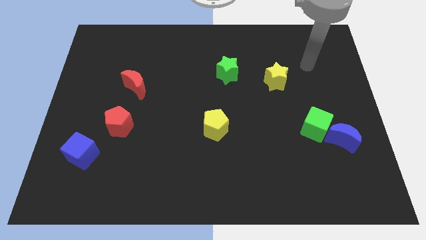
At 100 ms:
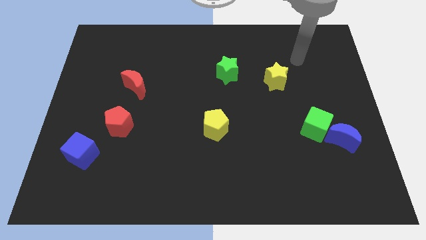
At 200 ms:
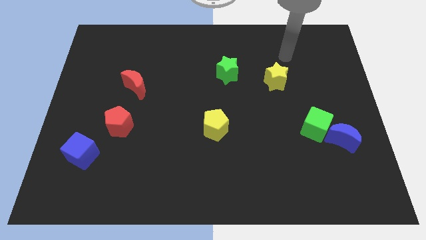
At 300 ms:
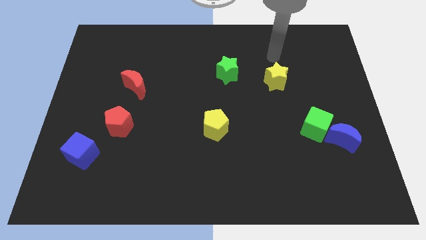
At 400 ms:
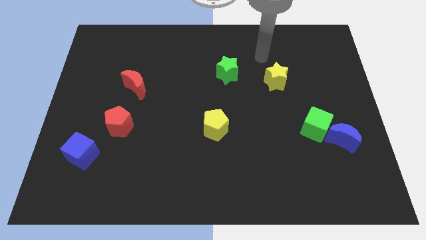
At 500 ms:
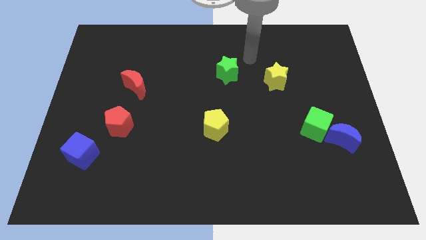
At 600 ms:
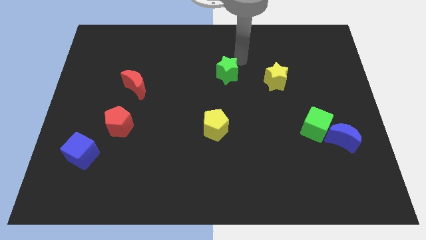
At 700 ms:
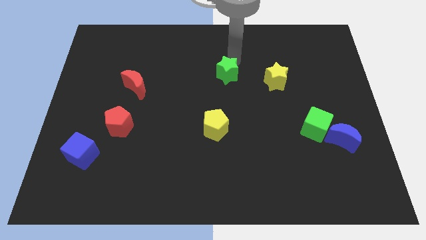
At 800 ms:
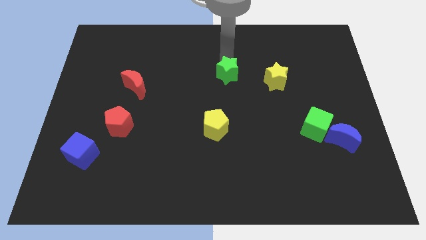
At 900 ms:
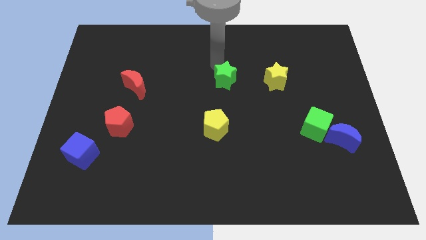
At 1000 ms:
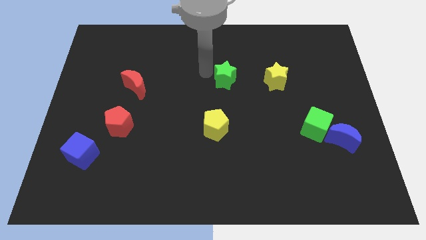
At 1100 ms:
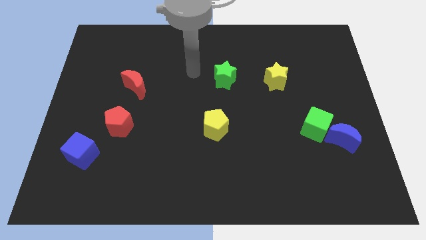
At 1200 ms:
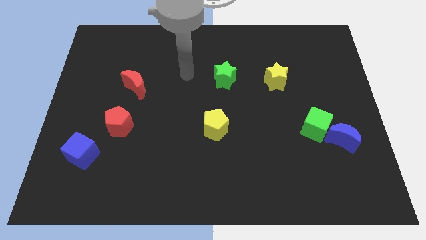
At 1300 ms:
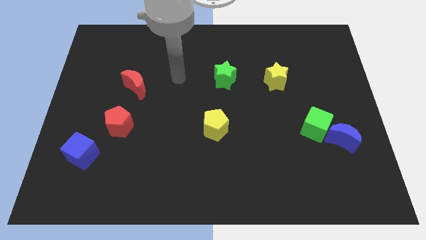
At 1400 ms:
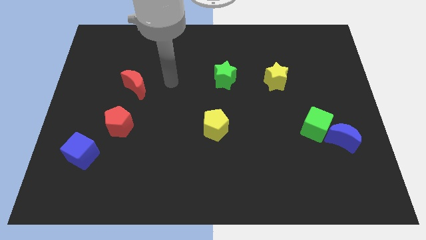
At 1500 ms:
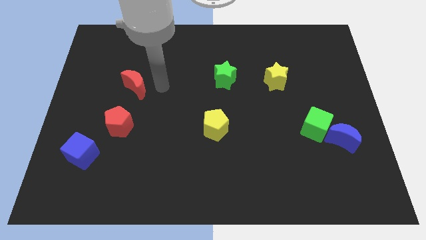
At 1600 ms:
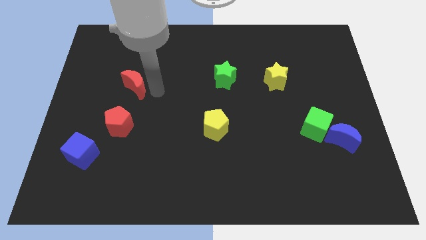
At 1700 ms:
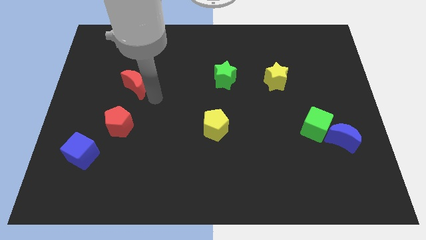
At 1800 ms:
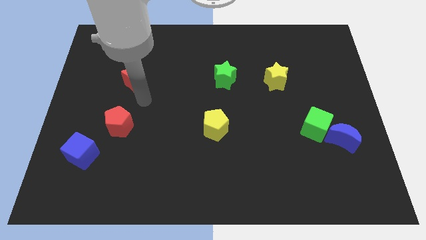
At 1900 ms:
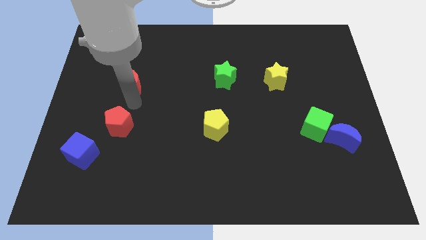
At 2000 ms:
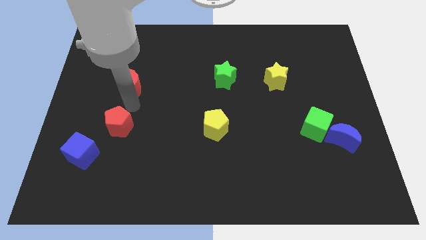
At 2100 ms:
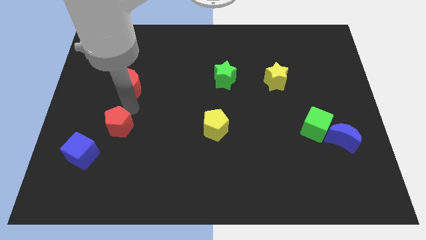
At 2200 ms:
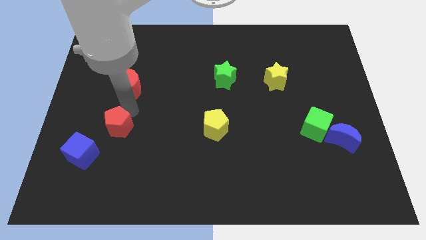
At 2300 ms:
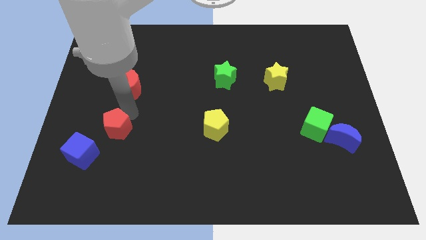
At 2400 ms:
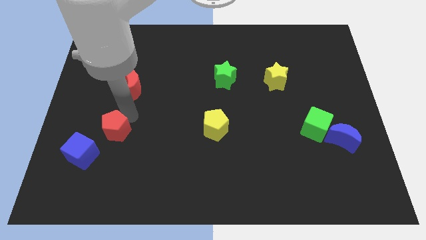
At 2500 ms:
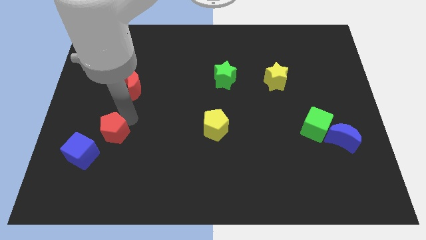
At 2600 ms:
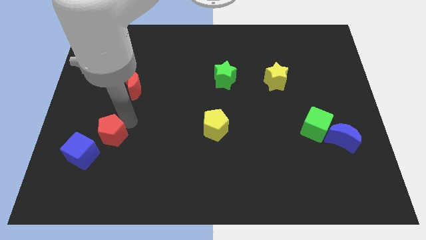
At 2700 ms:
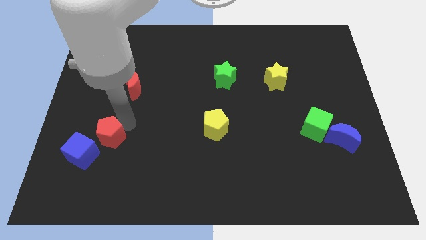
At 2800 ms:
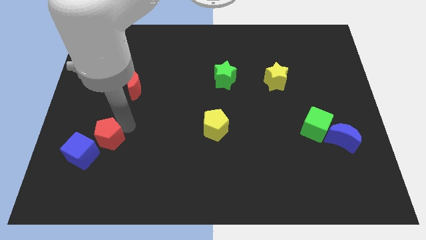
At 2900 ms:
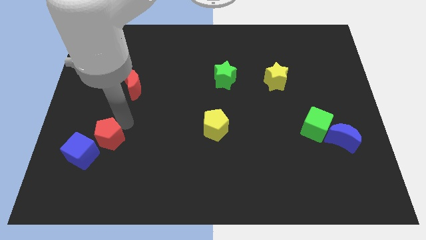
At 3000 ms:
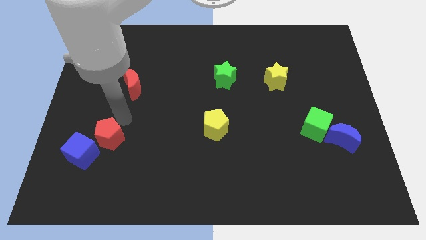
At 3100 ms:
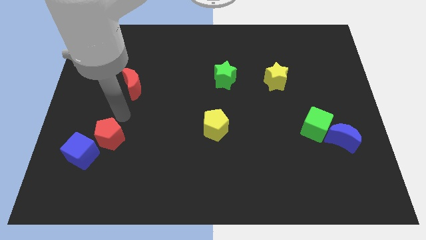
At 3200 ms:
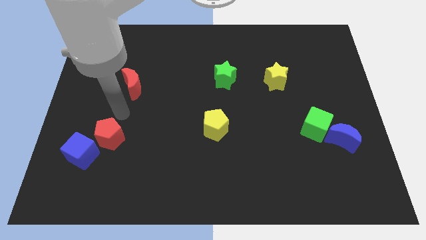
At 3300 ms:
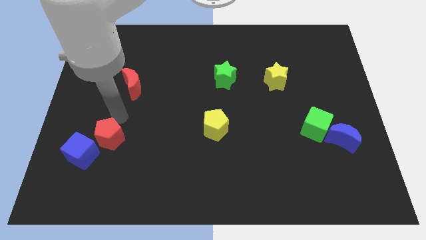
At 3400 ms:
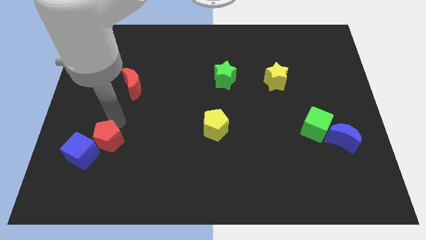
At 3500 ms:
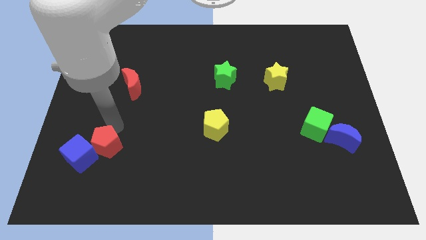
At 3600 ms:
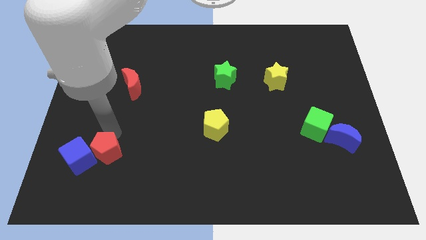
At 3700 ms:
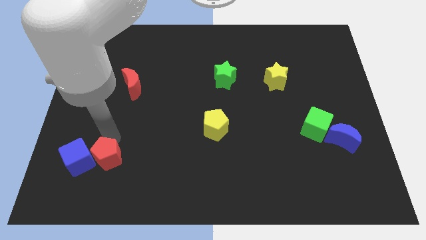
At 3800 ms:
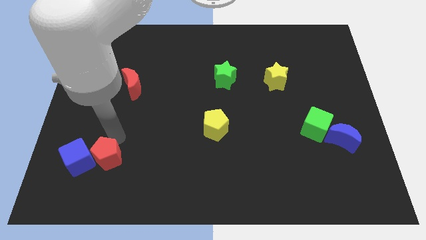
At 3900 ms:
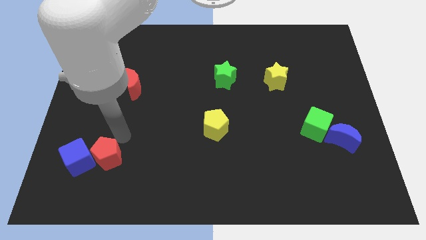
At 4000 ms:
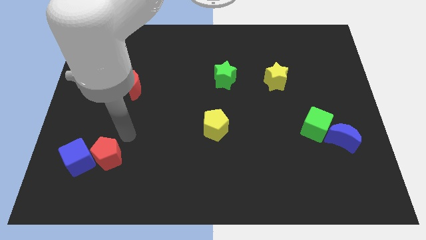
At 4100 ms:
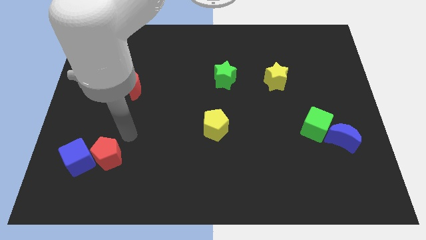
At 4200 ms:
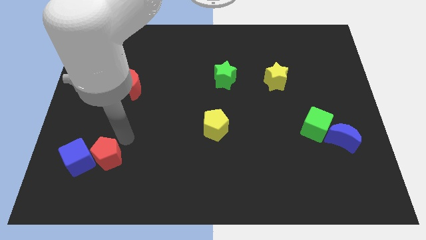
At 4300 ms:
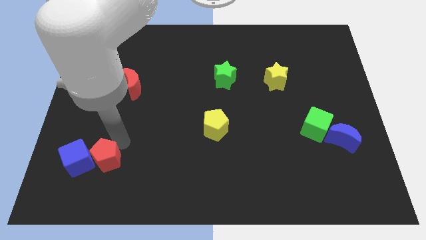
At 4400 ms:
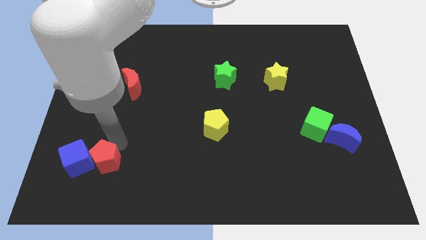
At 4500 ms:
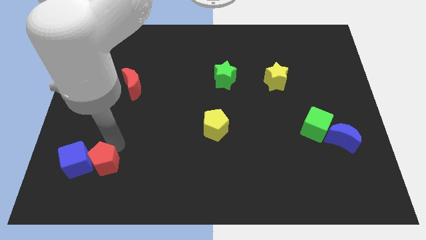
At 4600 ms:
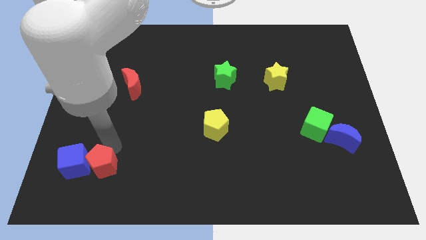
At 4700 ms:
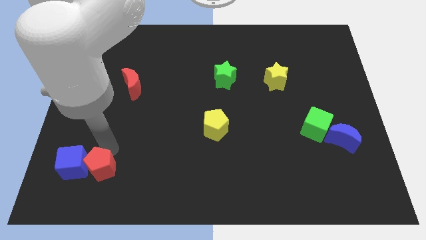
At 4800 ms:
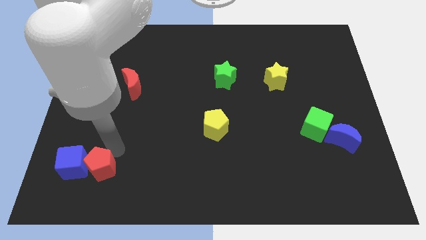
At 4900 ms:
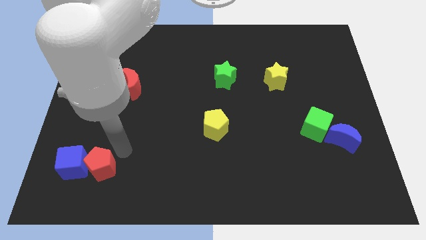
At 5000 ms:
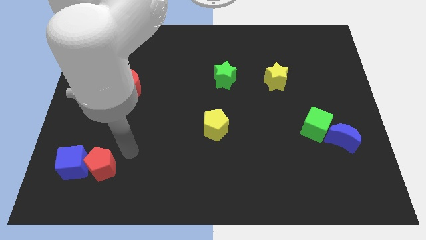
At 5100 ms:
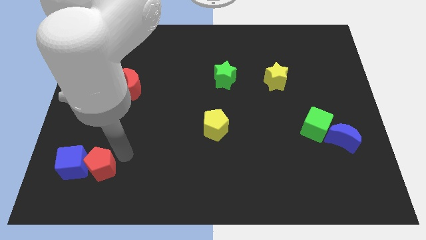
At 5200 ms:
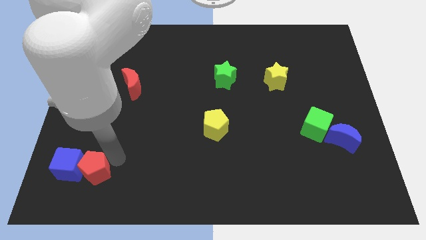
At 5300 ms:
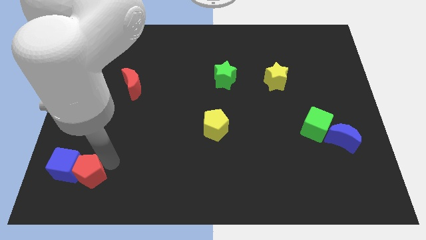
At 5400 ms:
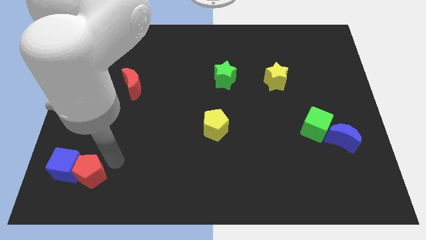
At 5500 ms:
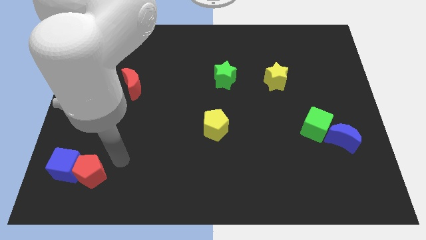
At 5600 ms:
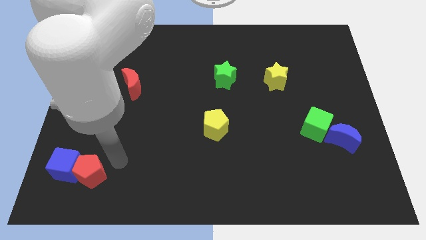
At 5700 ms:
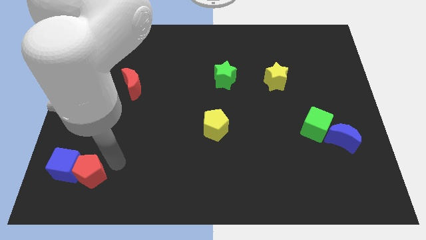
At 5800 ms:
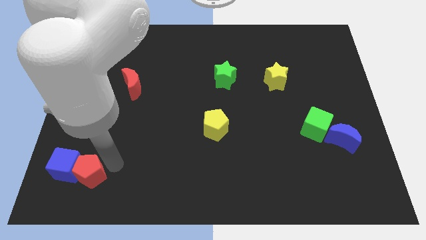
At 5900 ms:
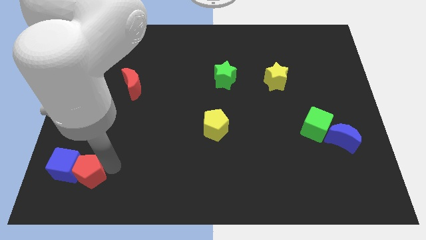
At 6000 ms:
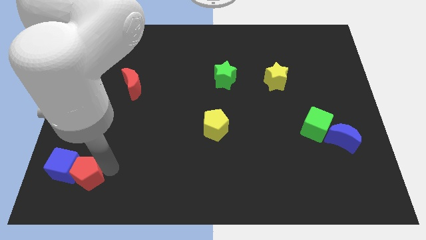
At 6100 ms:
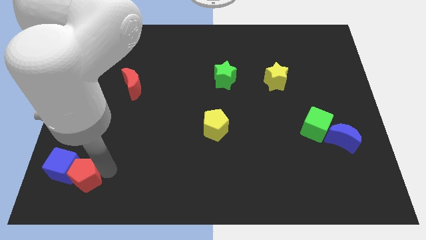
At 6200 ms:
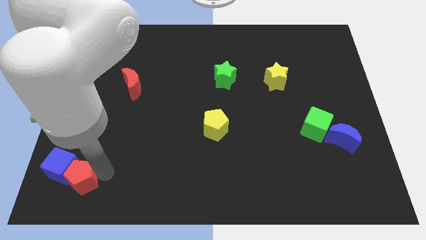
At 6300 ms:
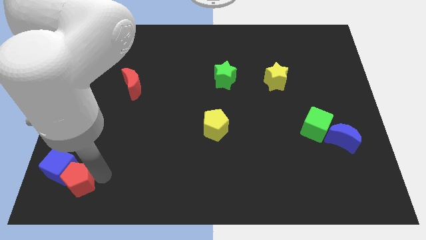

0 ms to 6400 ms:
move the red pentagon to the bottom left

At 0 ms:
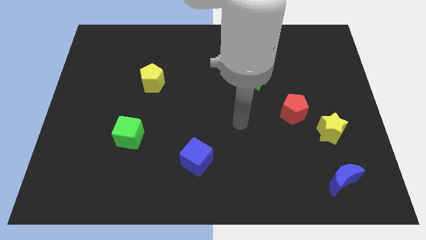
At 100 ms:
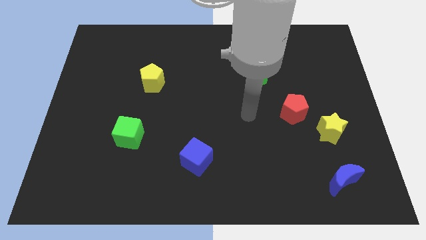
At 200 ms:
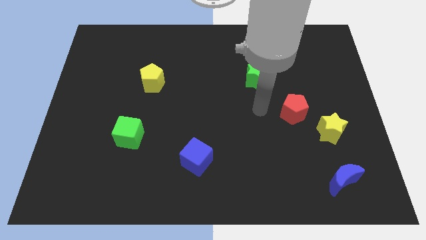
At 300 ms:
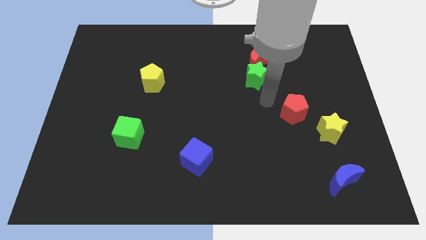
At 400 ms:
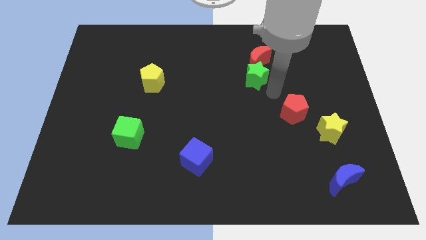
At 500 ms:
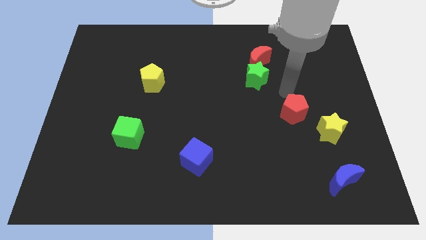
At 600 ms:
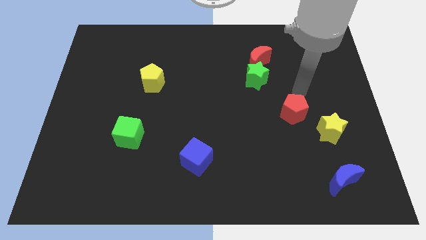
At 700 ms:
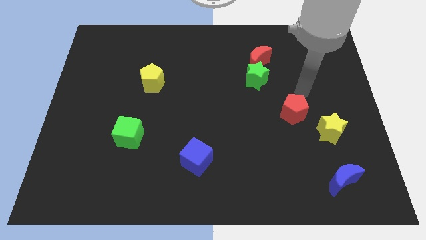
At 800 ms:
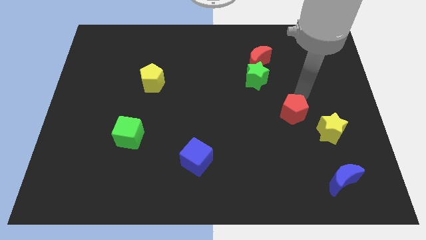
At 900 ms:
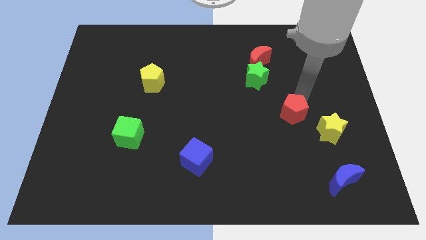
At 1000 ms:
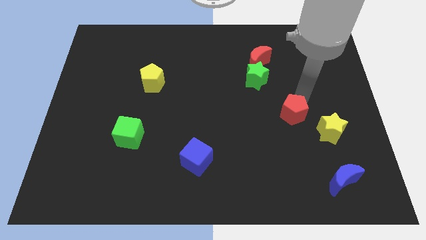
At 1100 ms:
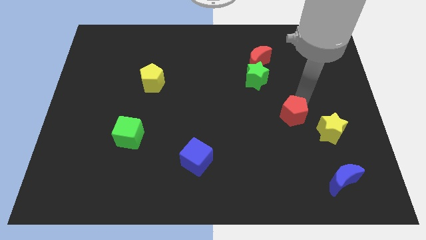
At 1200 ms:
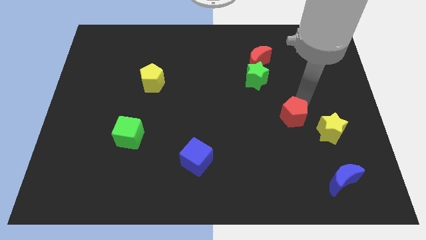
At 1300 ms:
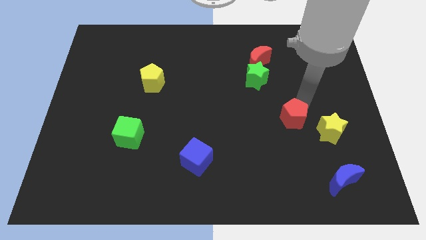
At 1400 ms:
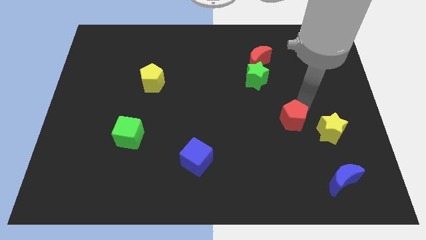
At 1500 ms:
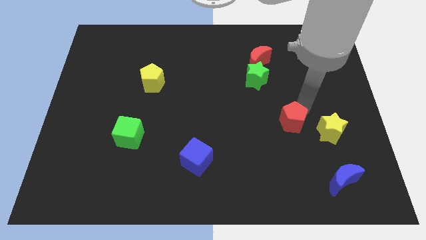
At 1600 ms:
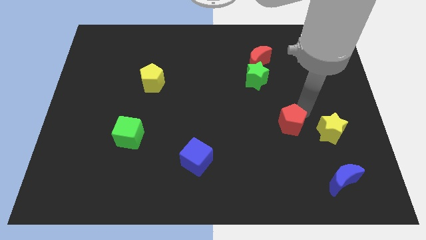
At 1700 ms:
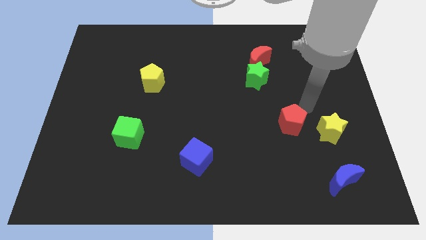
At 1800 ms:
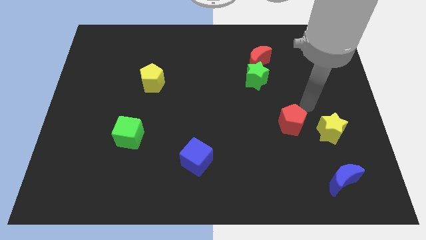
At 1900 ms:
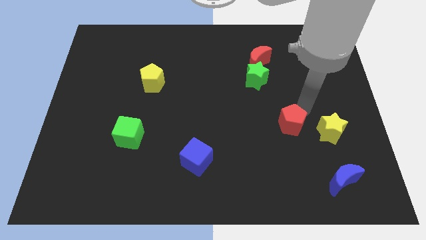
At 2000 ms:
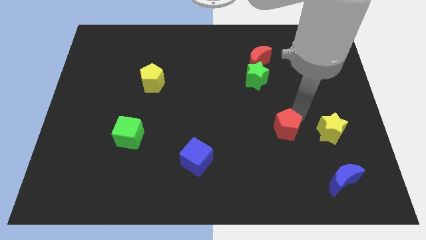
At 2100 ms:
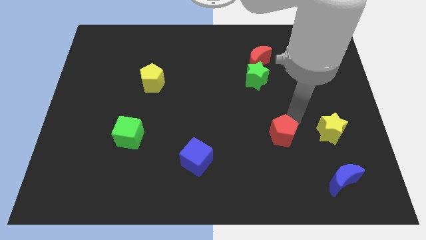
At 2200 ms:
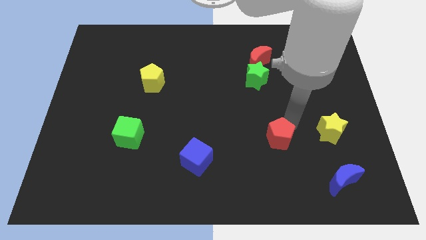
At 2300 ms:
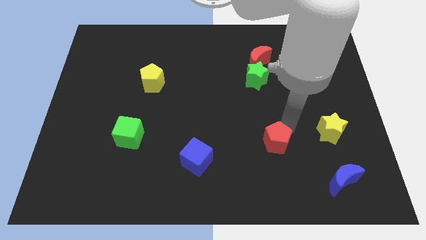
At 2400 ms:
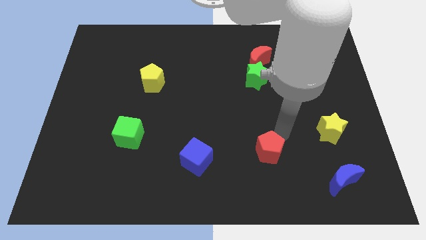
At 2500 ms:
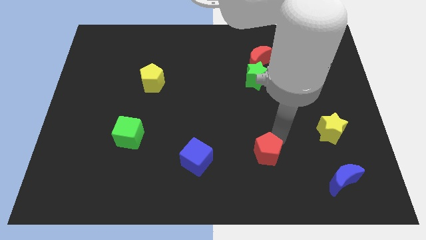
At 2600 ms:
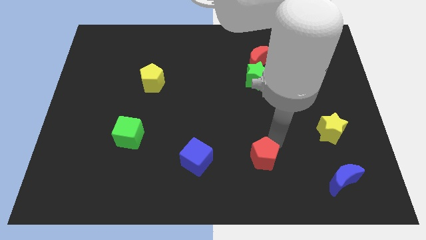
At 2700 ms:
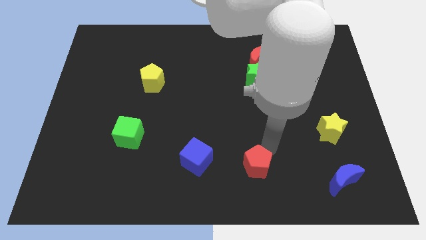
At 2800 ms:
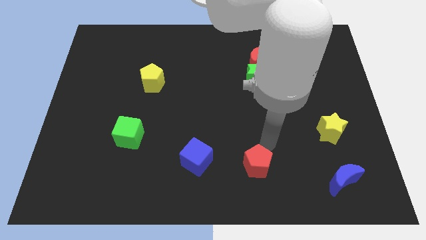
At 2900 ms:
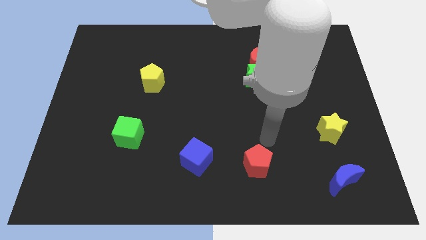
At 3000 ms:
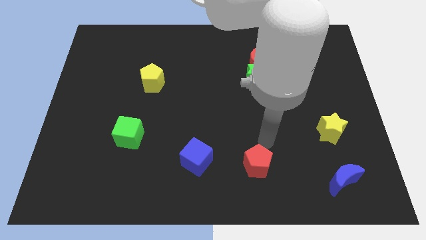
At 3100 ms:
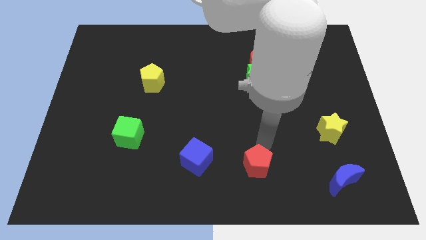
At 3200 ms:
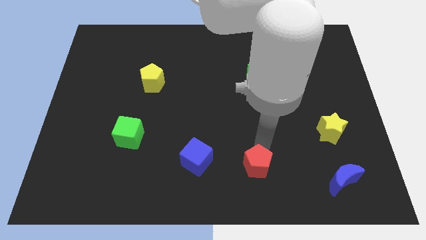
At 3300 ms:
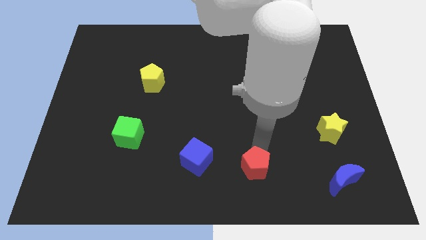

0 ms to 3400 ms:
move the red pentagon to the bottom side
